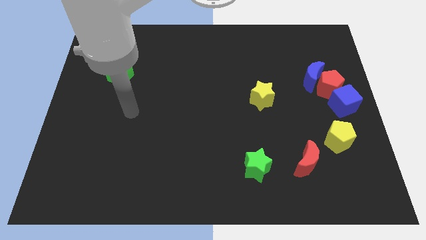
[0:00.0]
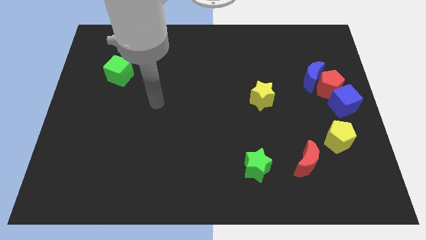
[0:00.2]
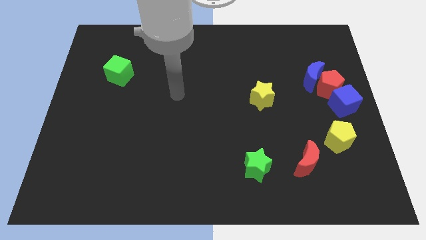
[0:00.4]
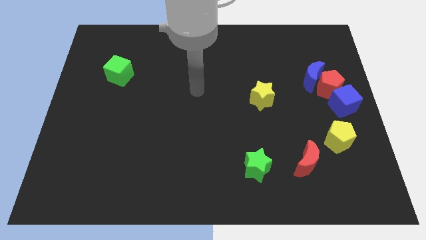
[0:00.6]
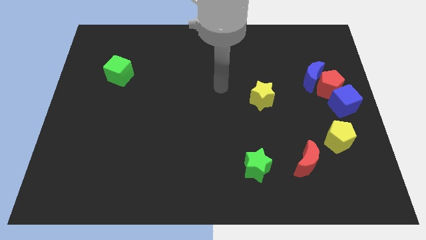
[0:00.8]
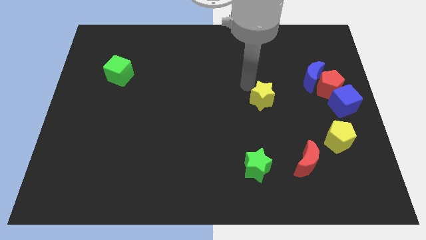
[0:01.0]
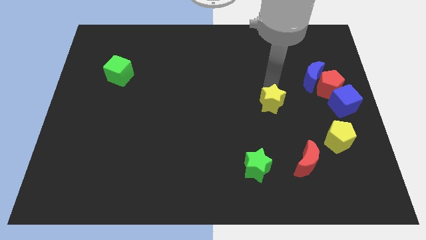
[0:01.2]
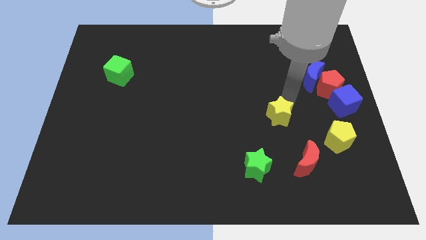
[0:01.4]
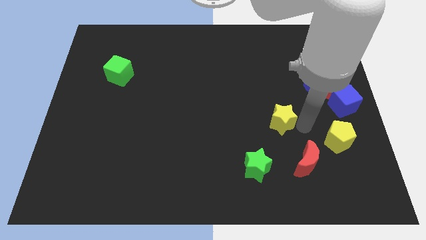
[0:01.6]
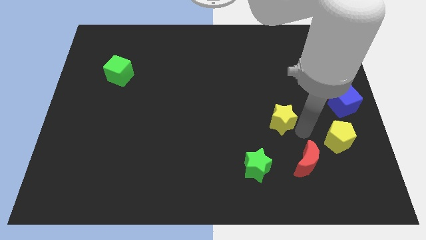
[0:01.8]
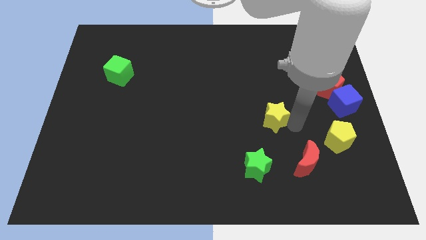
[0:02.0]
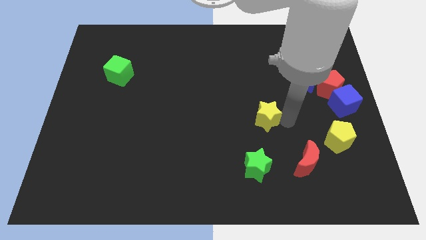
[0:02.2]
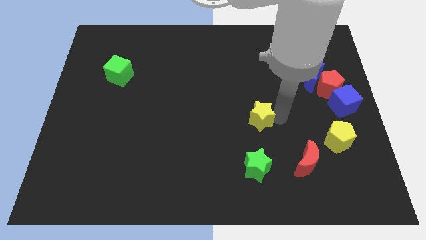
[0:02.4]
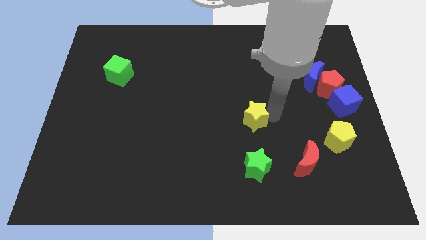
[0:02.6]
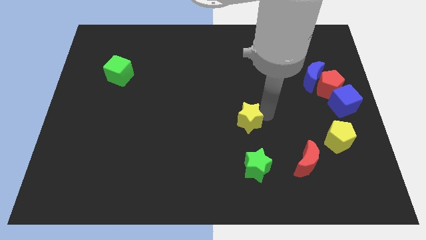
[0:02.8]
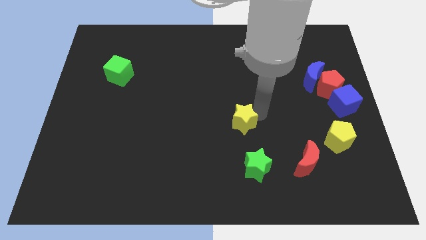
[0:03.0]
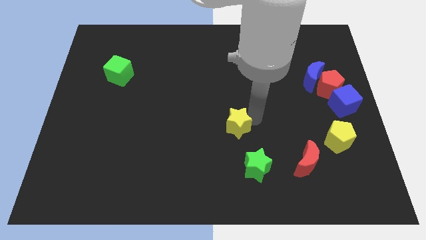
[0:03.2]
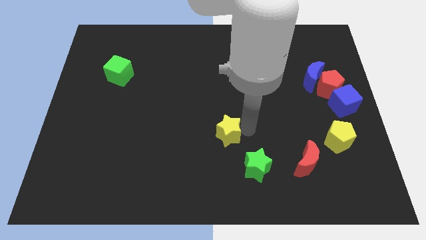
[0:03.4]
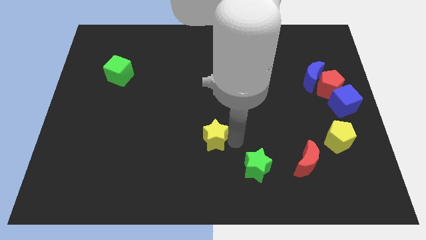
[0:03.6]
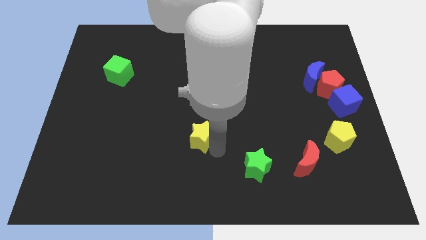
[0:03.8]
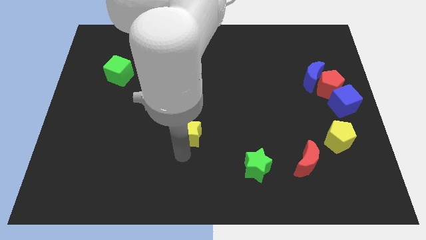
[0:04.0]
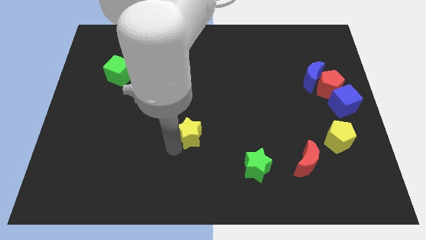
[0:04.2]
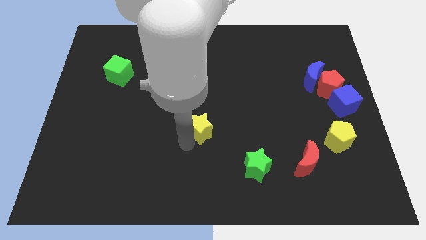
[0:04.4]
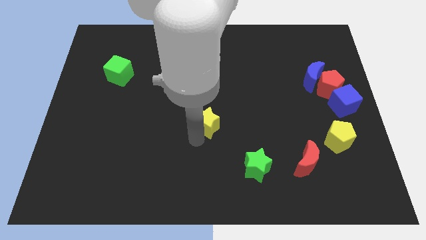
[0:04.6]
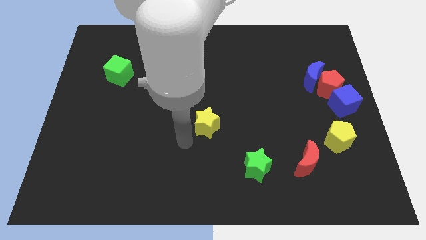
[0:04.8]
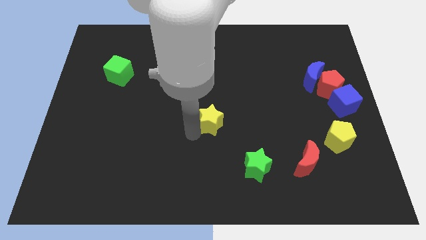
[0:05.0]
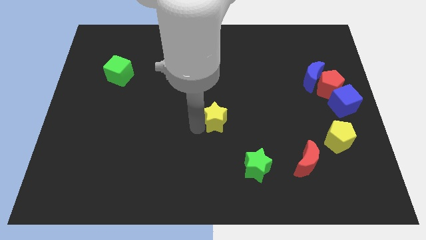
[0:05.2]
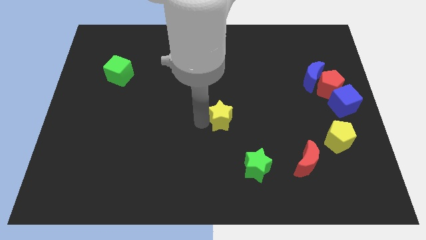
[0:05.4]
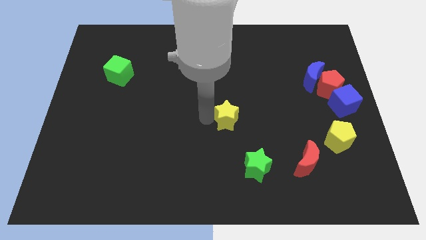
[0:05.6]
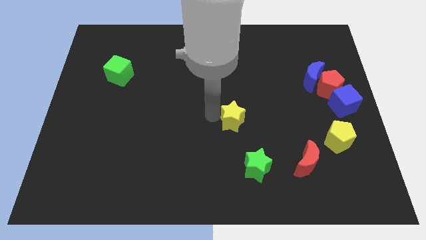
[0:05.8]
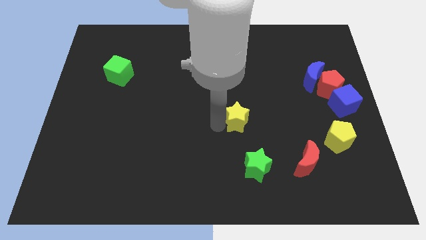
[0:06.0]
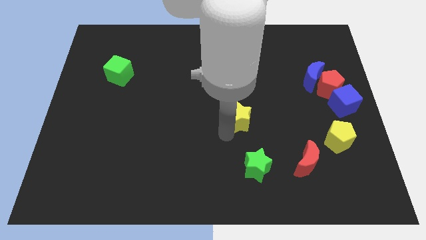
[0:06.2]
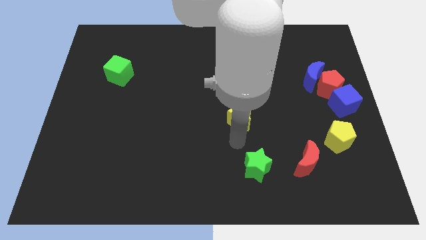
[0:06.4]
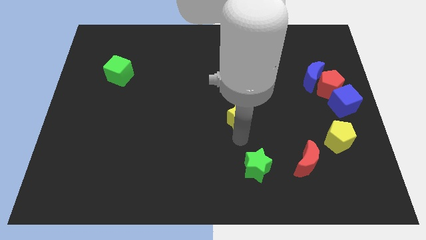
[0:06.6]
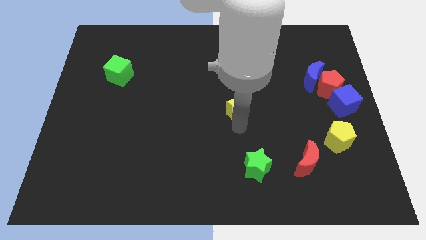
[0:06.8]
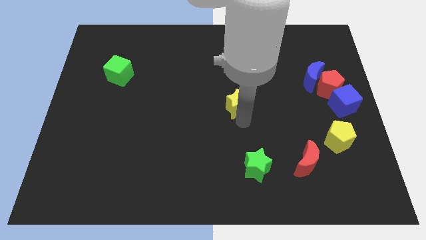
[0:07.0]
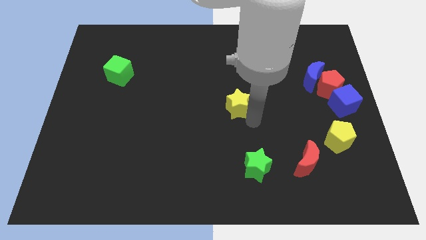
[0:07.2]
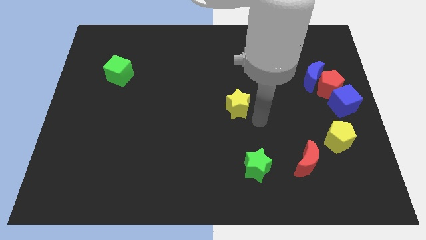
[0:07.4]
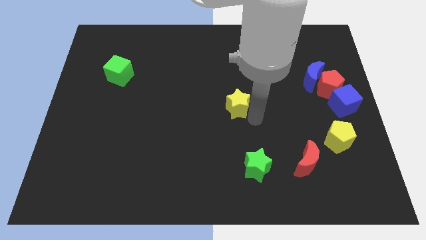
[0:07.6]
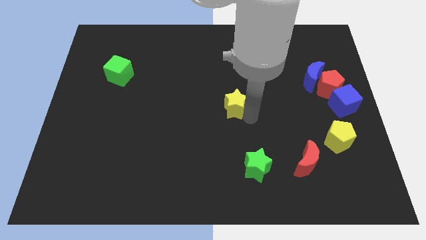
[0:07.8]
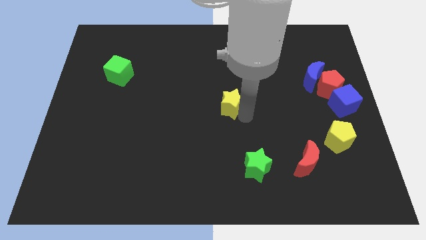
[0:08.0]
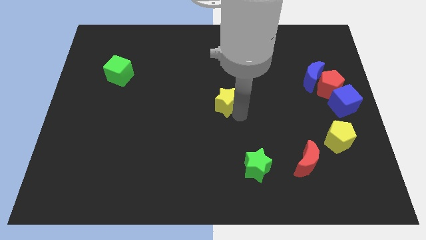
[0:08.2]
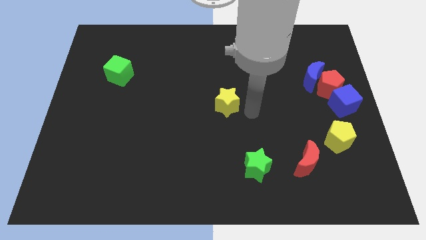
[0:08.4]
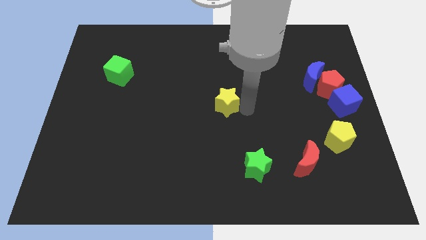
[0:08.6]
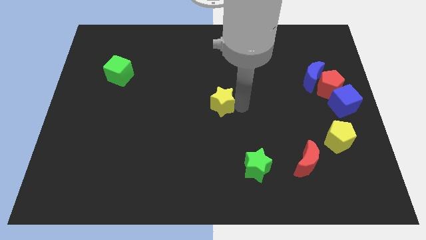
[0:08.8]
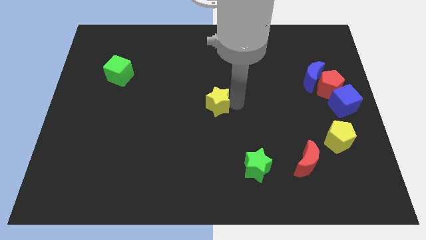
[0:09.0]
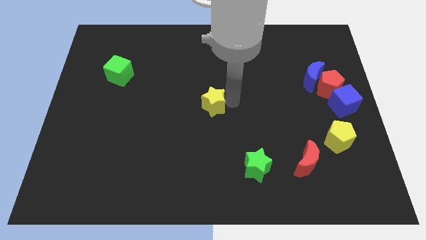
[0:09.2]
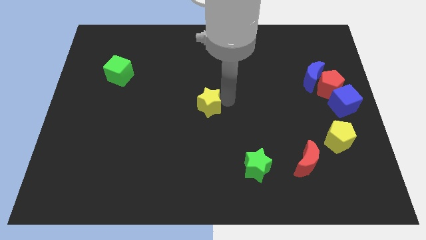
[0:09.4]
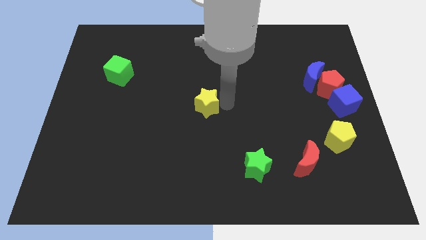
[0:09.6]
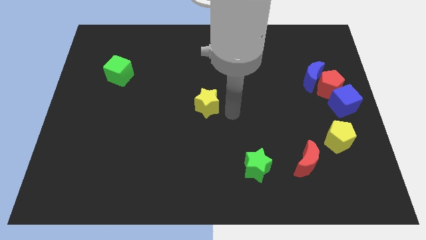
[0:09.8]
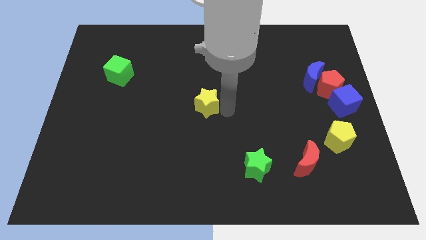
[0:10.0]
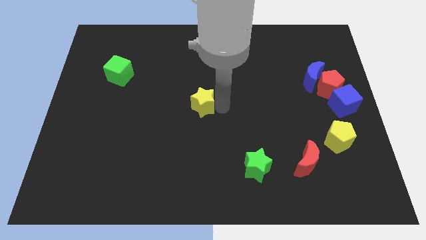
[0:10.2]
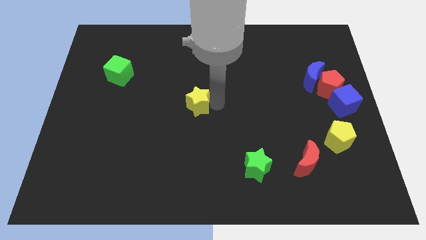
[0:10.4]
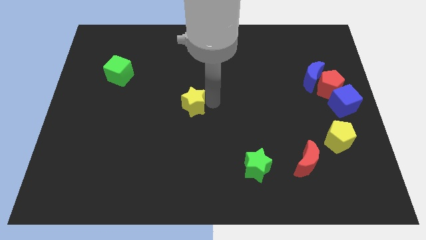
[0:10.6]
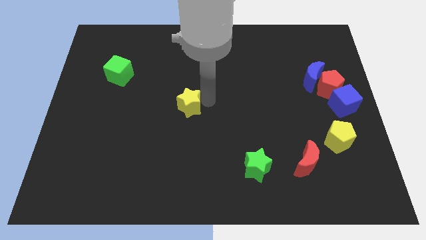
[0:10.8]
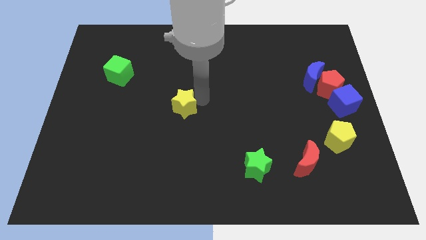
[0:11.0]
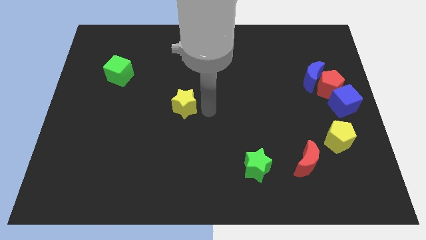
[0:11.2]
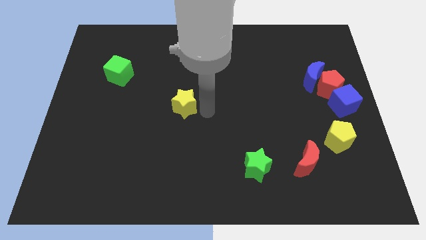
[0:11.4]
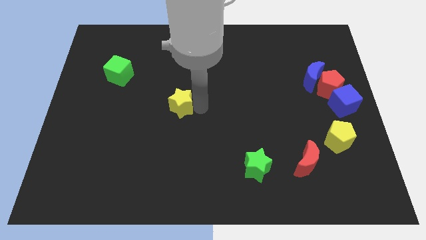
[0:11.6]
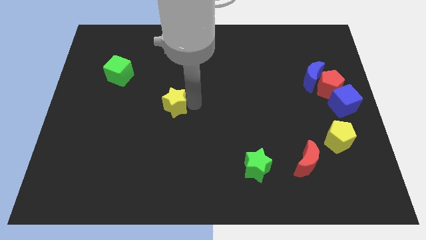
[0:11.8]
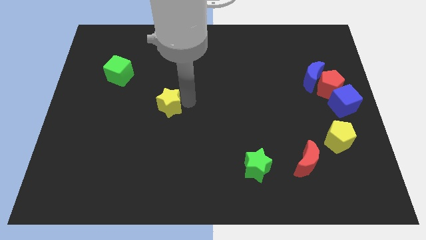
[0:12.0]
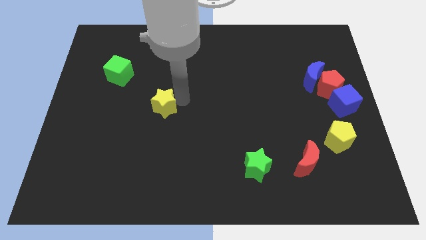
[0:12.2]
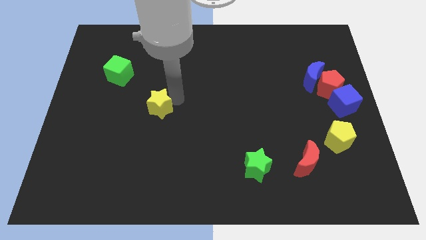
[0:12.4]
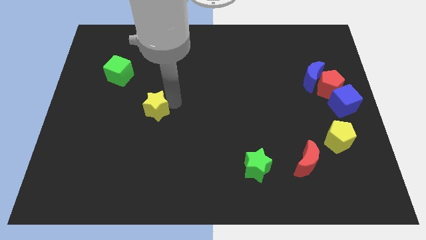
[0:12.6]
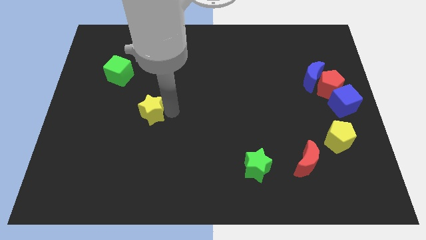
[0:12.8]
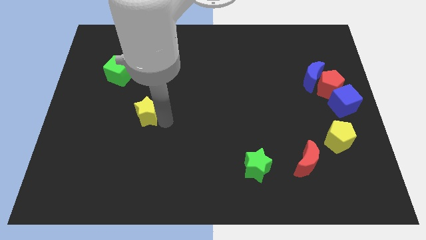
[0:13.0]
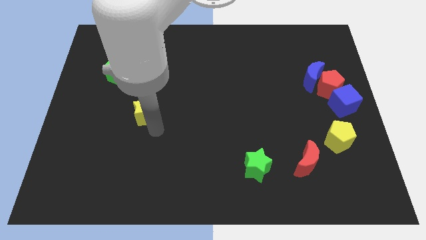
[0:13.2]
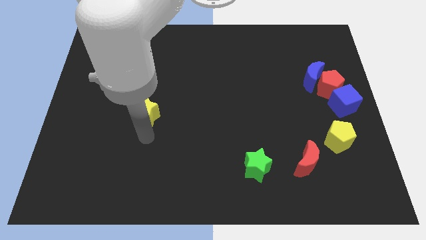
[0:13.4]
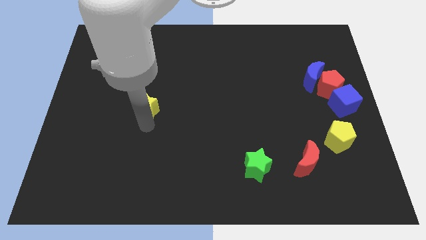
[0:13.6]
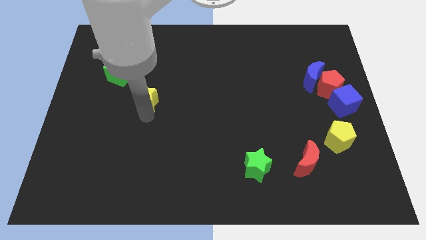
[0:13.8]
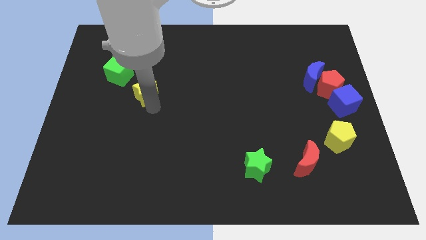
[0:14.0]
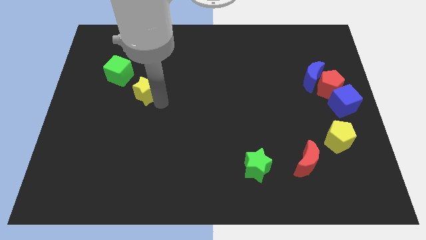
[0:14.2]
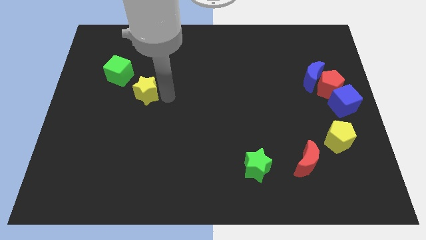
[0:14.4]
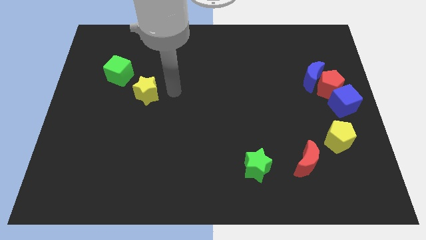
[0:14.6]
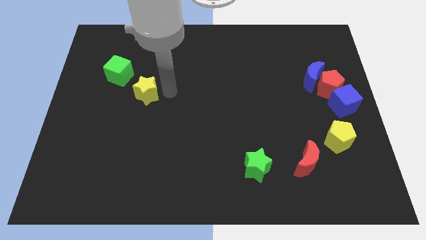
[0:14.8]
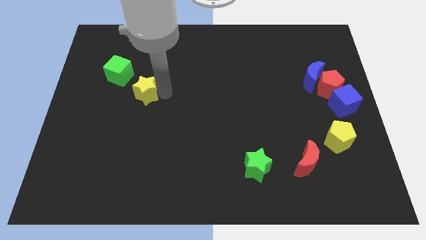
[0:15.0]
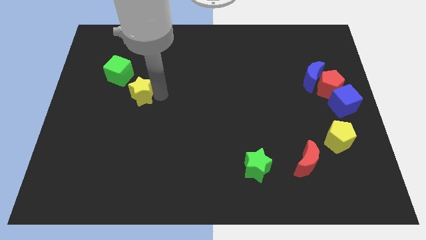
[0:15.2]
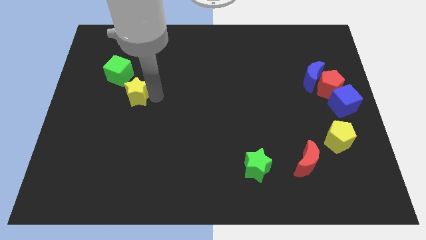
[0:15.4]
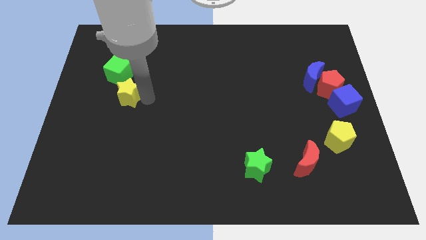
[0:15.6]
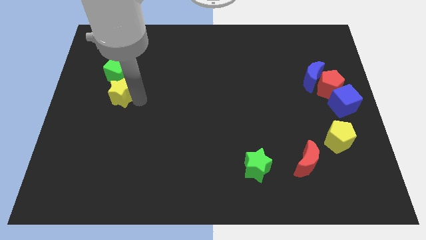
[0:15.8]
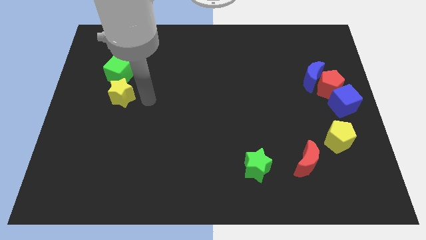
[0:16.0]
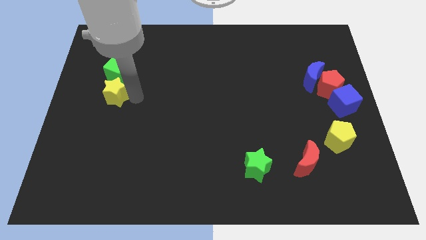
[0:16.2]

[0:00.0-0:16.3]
put the yellow star diagonally down and to the left of the green cube
